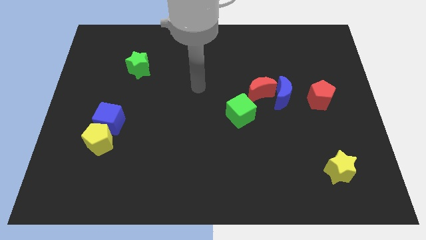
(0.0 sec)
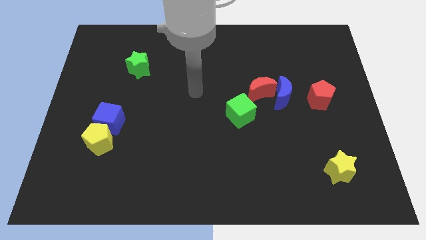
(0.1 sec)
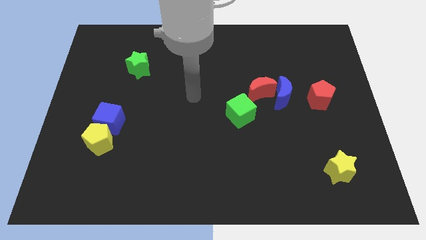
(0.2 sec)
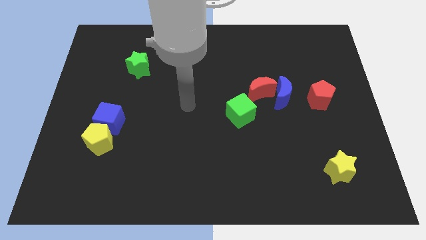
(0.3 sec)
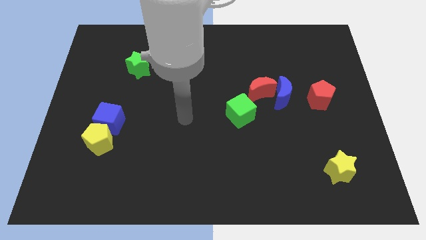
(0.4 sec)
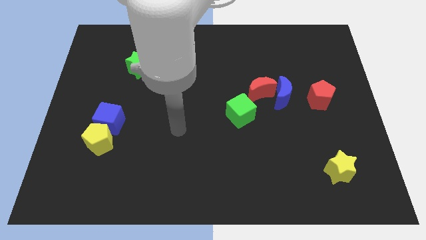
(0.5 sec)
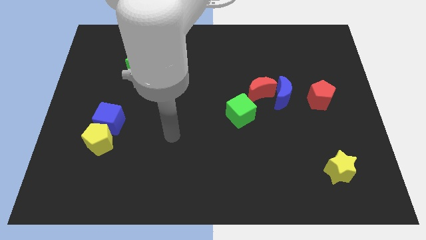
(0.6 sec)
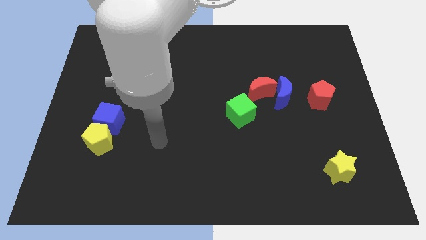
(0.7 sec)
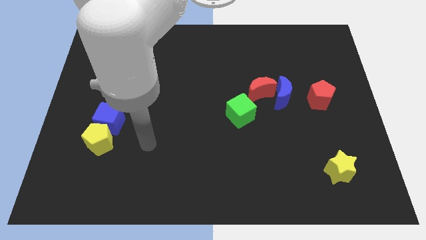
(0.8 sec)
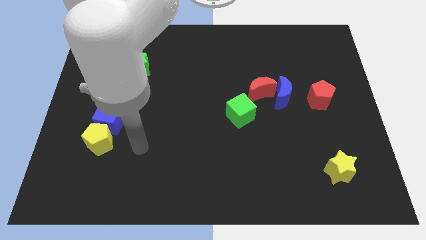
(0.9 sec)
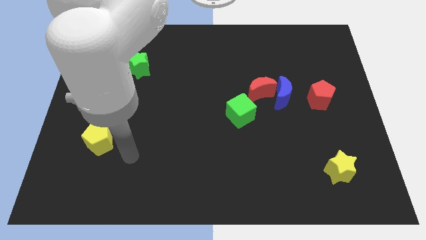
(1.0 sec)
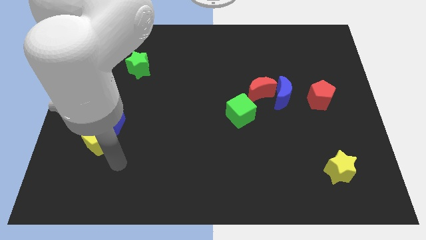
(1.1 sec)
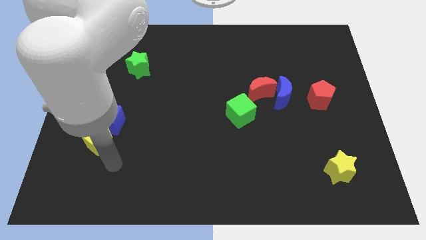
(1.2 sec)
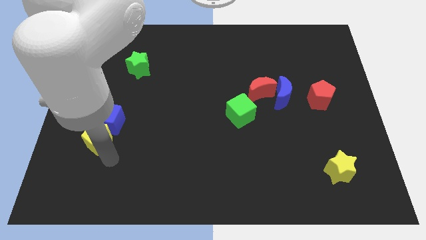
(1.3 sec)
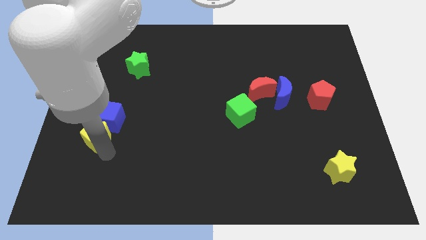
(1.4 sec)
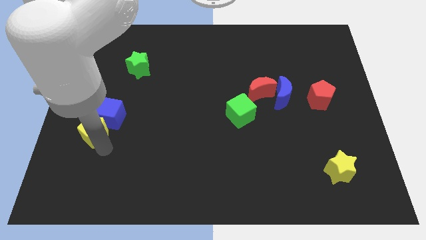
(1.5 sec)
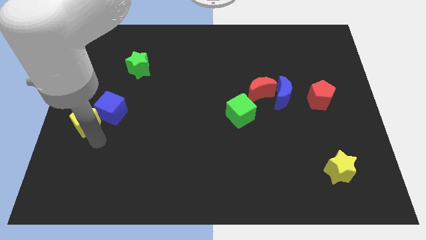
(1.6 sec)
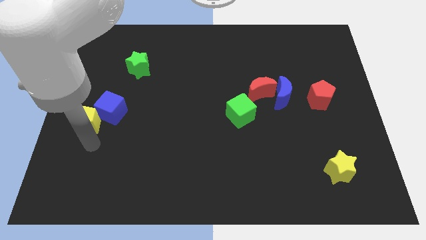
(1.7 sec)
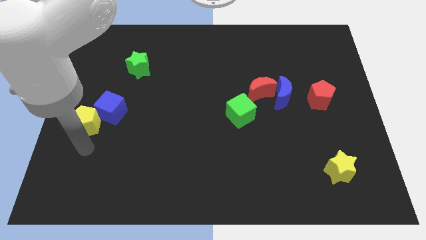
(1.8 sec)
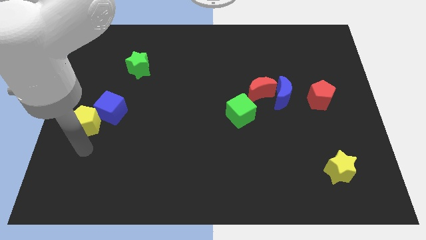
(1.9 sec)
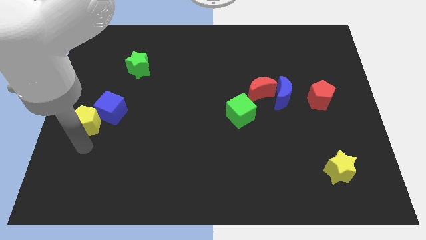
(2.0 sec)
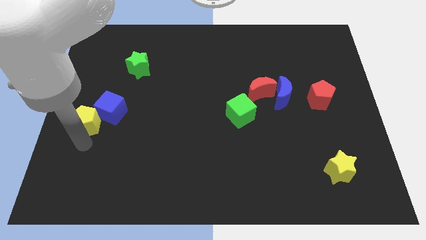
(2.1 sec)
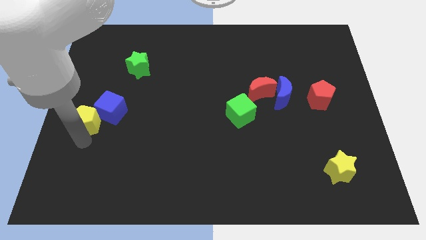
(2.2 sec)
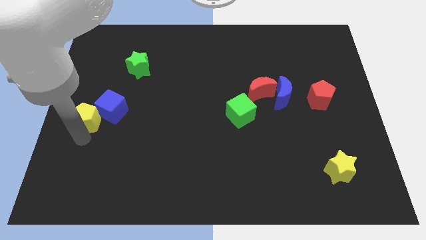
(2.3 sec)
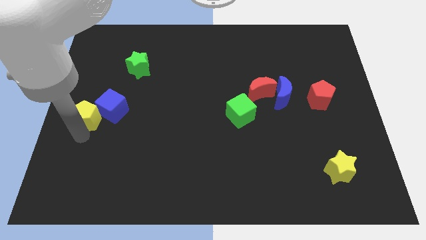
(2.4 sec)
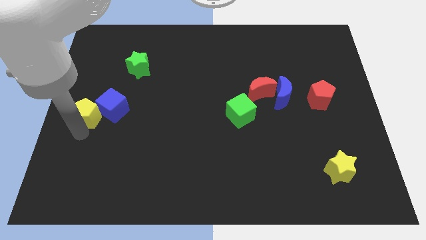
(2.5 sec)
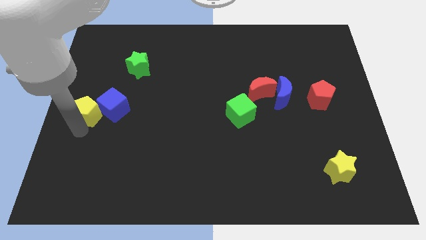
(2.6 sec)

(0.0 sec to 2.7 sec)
slightly move the yellow pentagon upwards

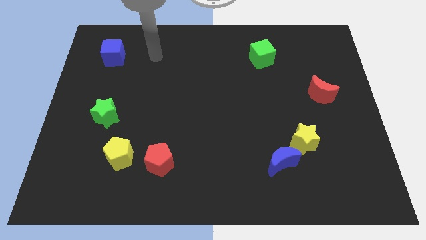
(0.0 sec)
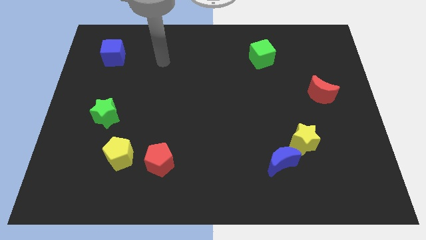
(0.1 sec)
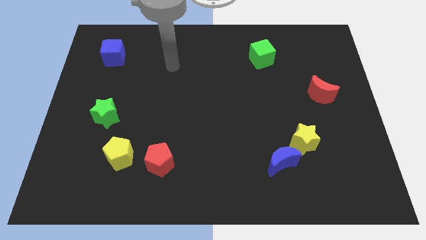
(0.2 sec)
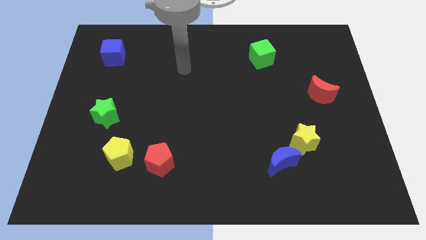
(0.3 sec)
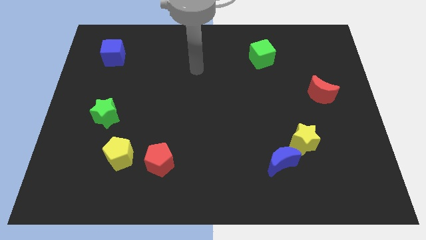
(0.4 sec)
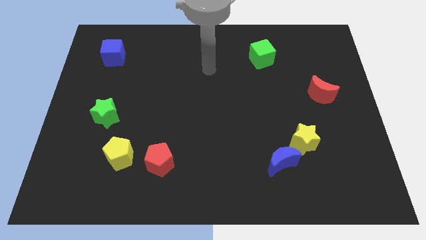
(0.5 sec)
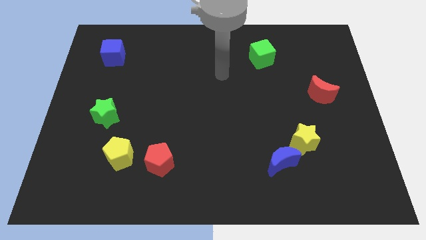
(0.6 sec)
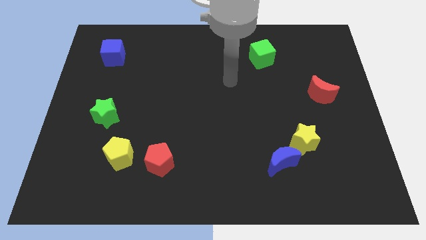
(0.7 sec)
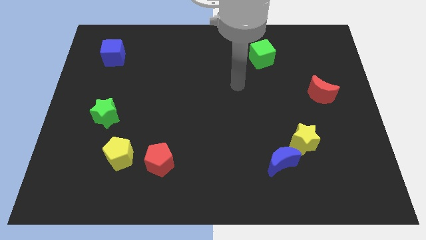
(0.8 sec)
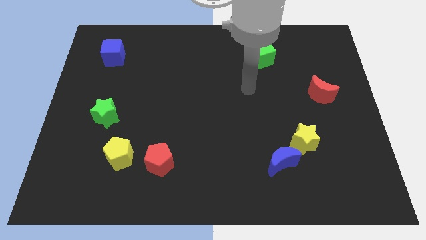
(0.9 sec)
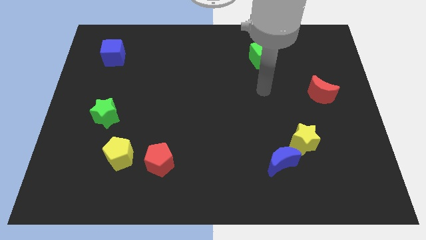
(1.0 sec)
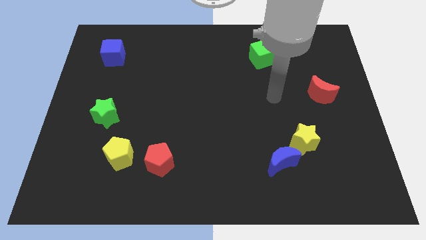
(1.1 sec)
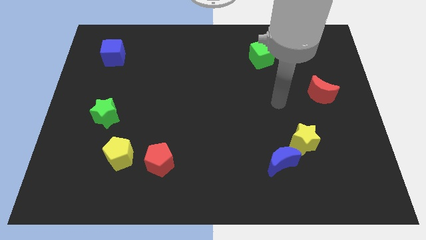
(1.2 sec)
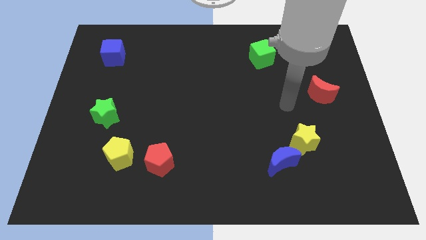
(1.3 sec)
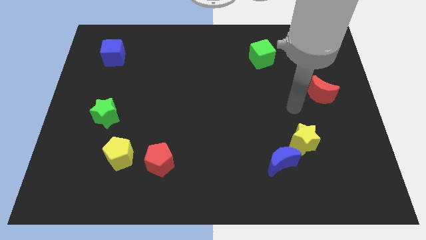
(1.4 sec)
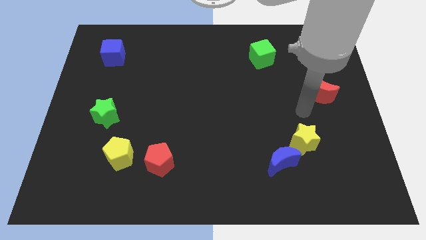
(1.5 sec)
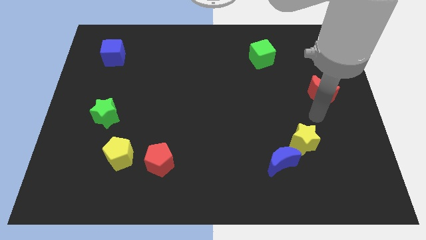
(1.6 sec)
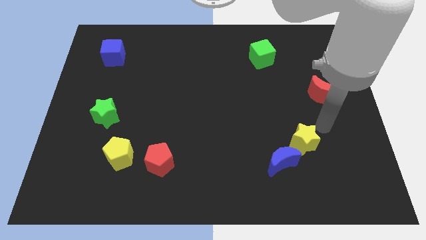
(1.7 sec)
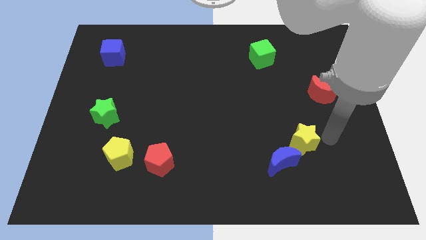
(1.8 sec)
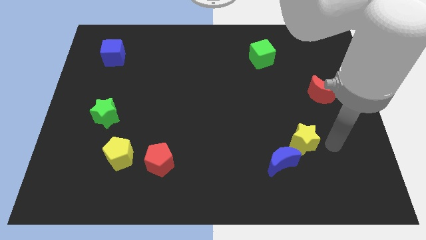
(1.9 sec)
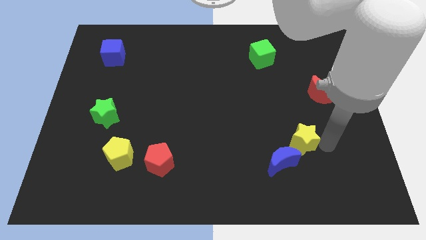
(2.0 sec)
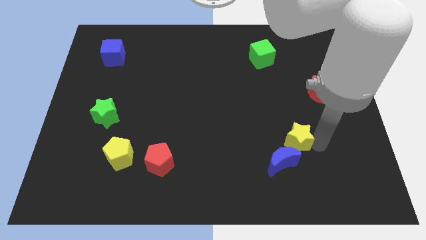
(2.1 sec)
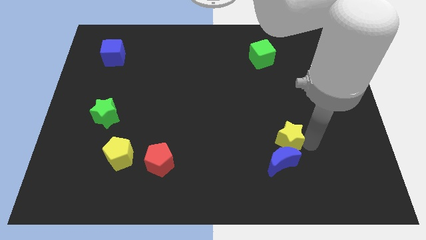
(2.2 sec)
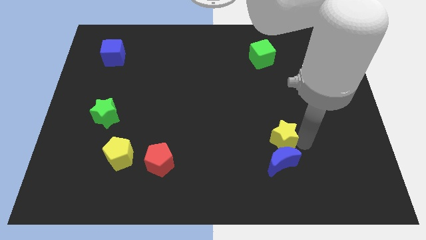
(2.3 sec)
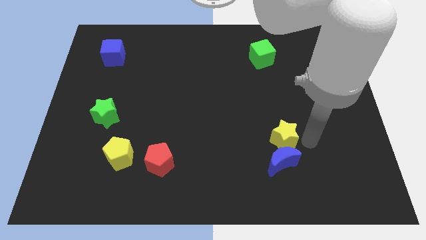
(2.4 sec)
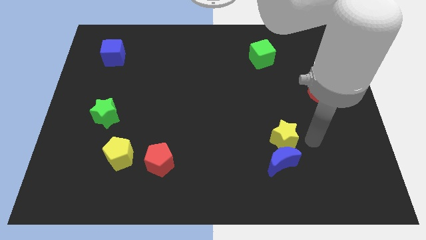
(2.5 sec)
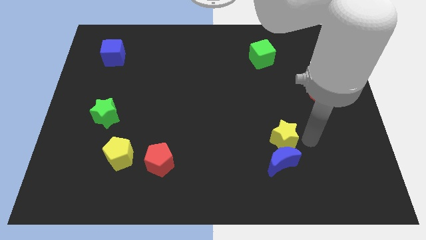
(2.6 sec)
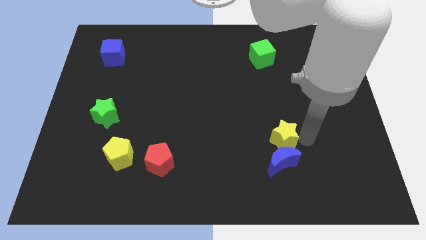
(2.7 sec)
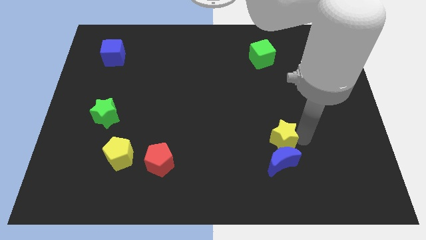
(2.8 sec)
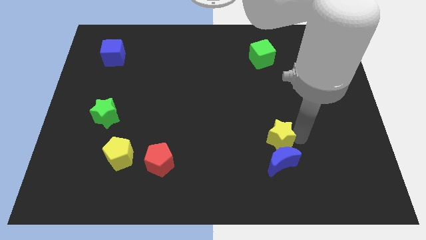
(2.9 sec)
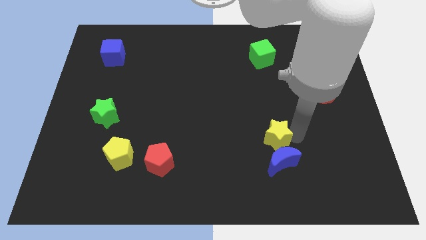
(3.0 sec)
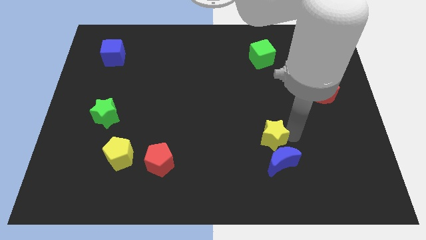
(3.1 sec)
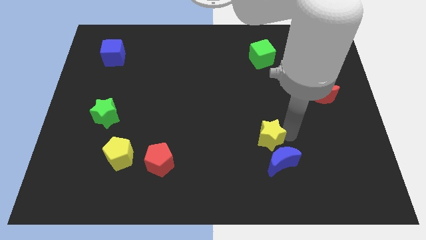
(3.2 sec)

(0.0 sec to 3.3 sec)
move the yellow star a little left

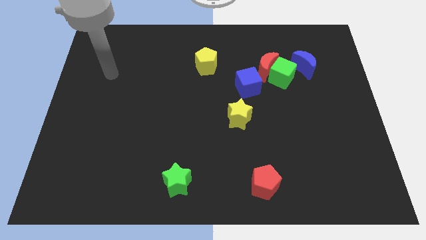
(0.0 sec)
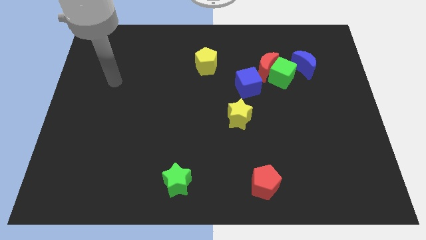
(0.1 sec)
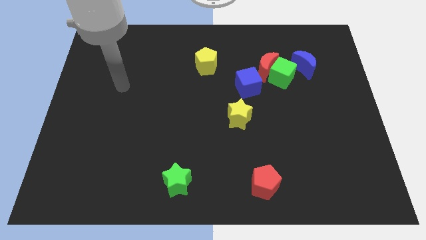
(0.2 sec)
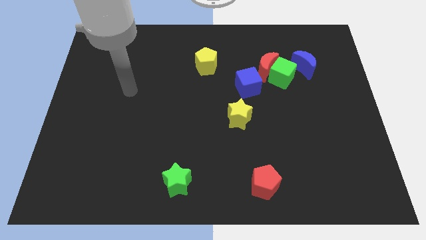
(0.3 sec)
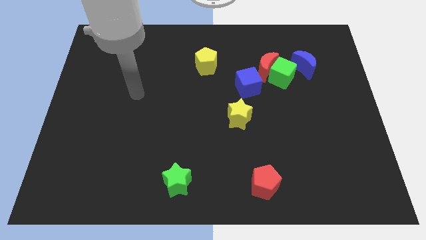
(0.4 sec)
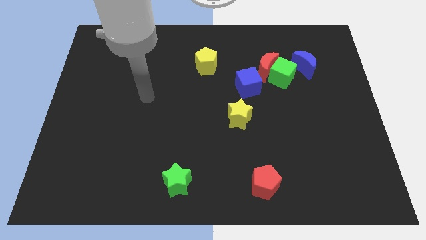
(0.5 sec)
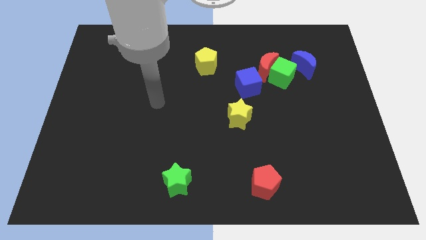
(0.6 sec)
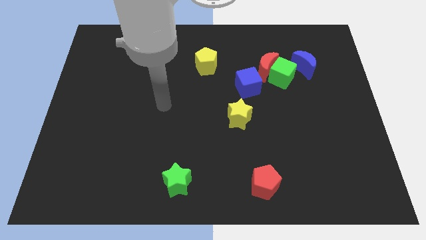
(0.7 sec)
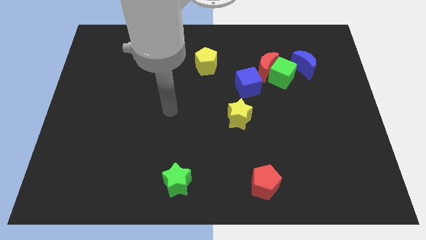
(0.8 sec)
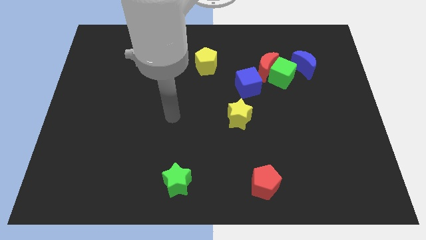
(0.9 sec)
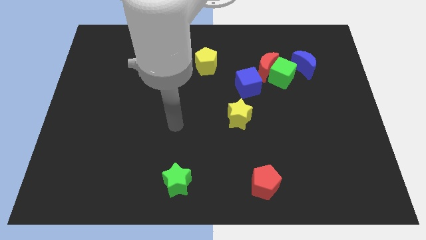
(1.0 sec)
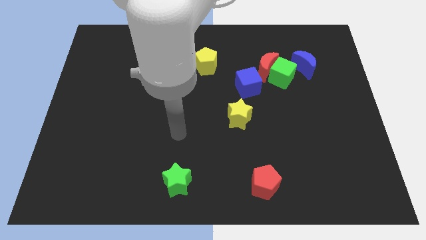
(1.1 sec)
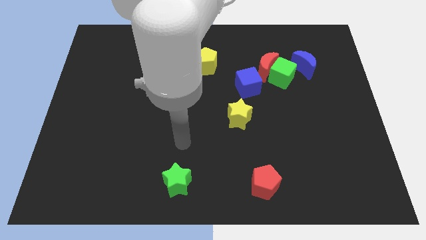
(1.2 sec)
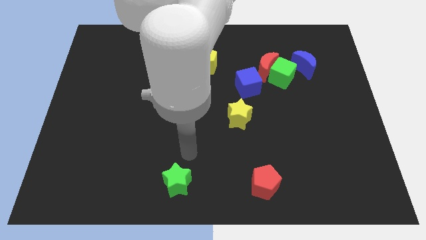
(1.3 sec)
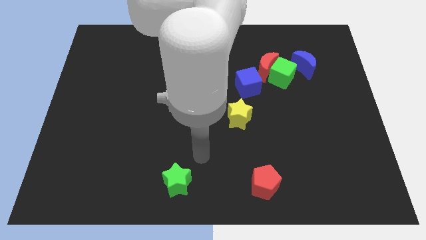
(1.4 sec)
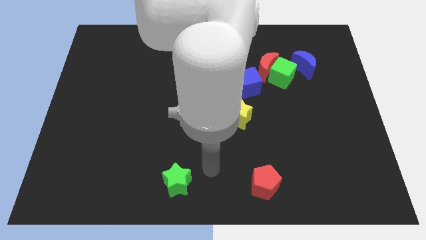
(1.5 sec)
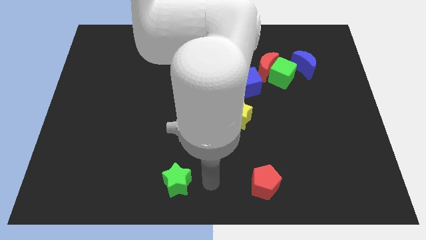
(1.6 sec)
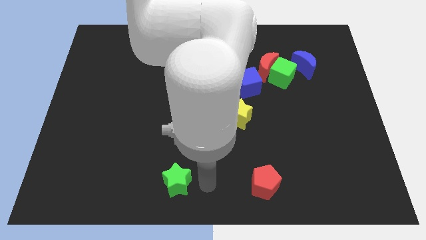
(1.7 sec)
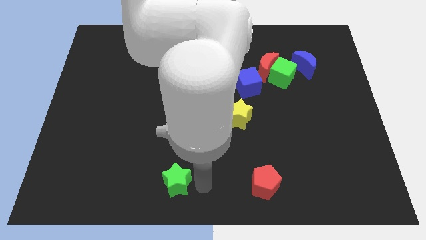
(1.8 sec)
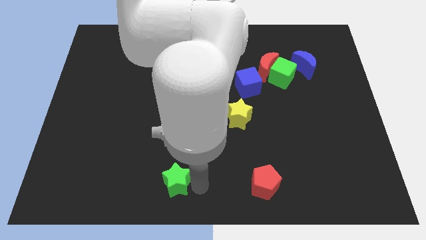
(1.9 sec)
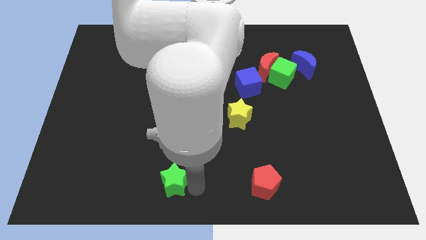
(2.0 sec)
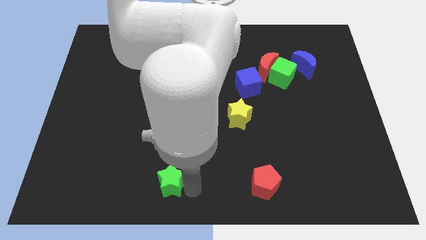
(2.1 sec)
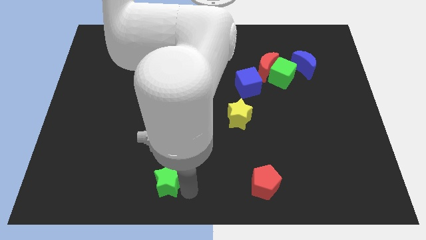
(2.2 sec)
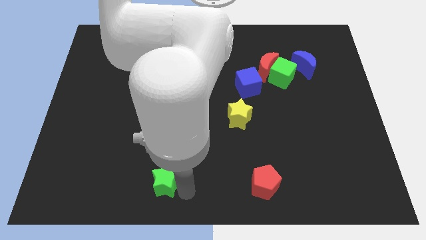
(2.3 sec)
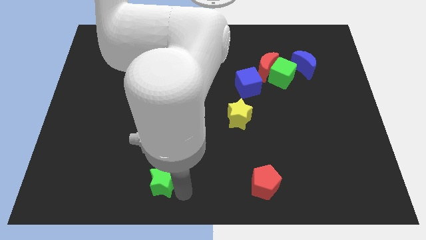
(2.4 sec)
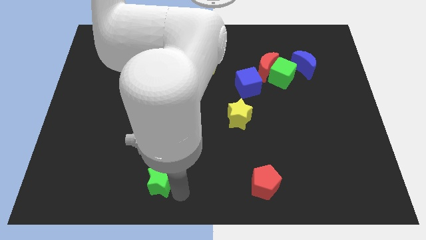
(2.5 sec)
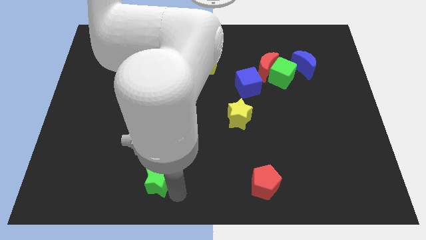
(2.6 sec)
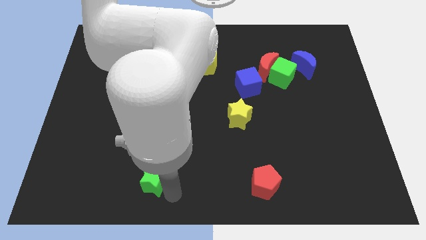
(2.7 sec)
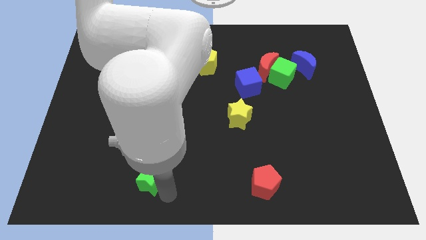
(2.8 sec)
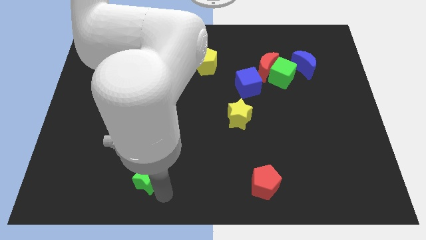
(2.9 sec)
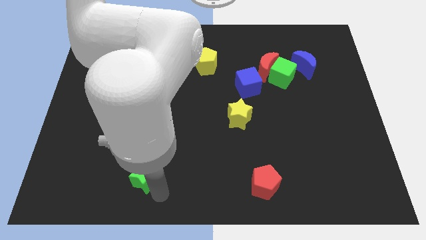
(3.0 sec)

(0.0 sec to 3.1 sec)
slightly move the green star left
